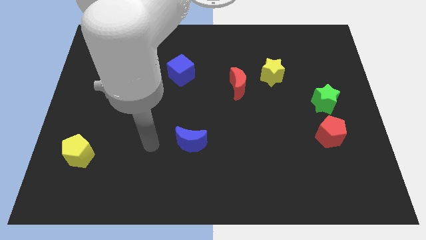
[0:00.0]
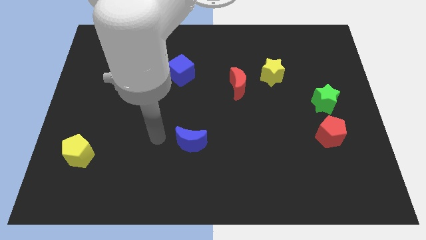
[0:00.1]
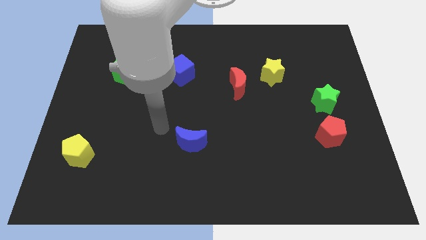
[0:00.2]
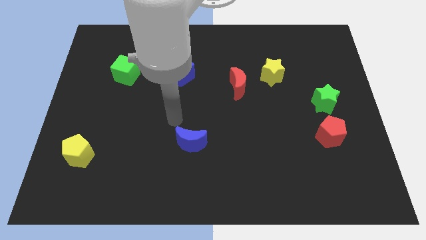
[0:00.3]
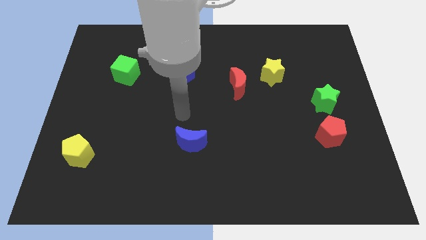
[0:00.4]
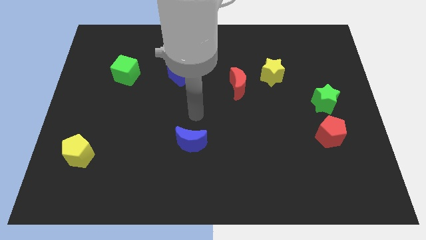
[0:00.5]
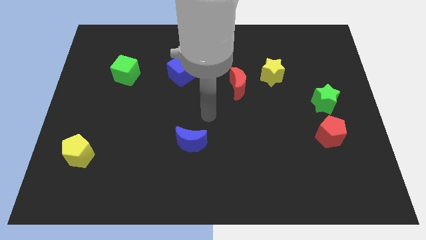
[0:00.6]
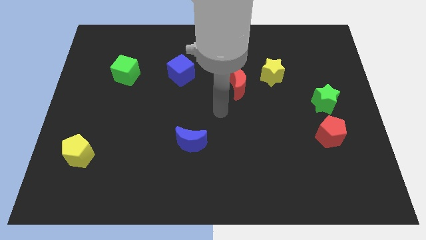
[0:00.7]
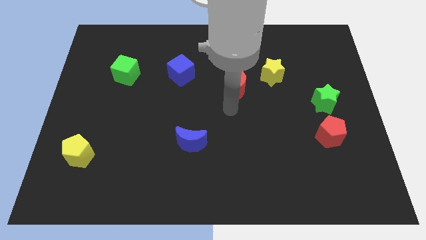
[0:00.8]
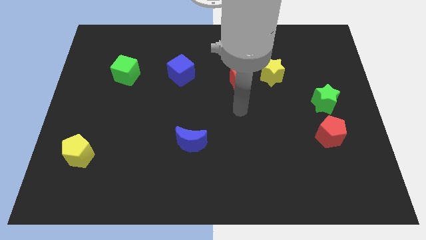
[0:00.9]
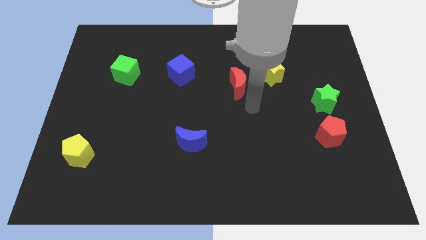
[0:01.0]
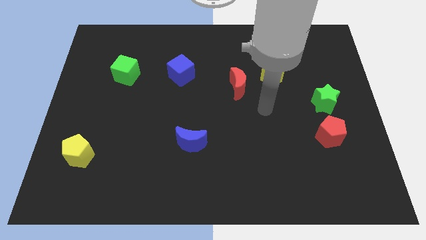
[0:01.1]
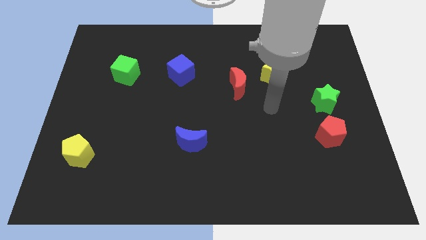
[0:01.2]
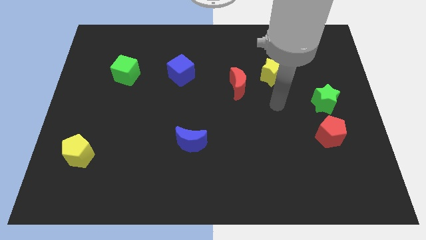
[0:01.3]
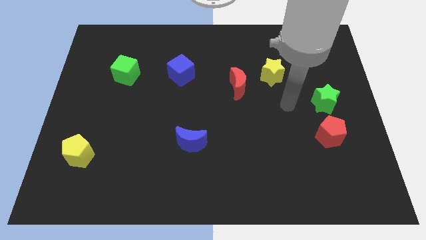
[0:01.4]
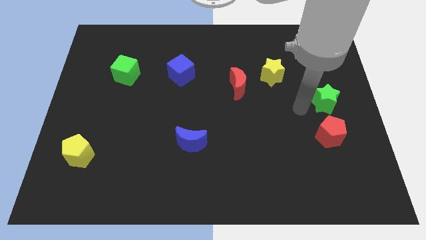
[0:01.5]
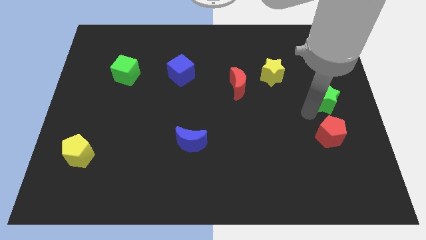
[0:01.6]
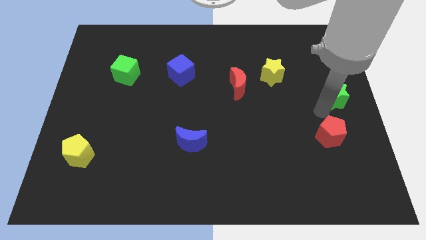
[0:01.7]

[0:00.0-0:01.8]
separate the red pentagon from the green star

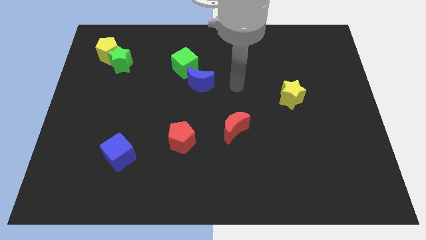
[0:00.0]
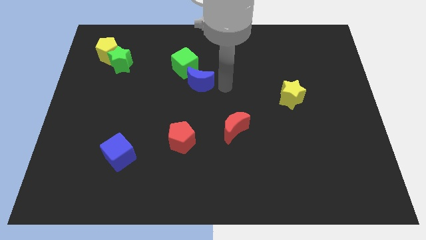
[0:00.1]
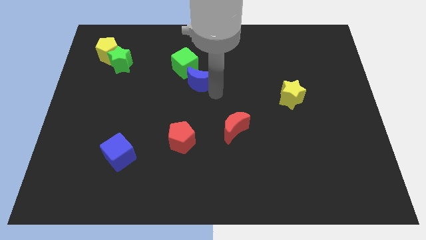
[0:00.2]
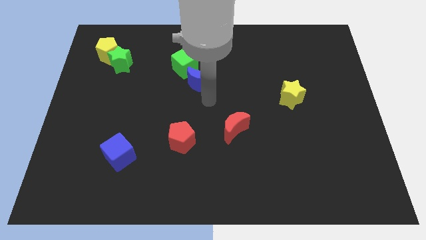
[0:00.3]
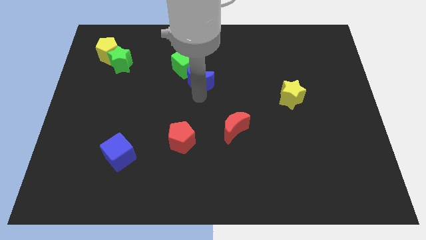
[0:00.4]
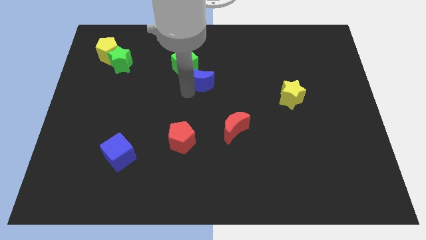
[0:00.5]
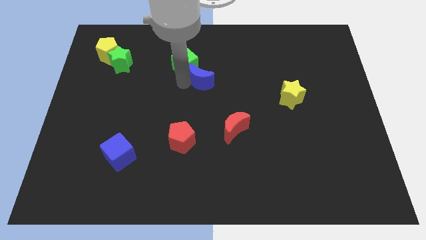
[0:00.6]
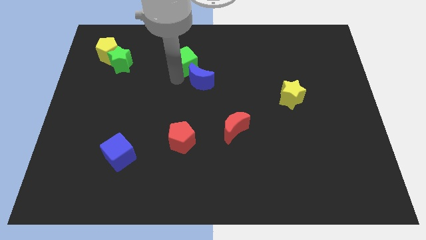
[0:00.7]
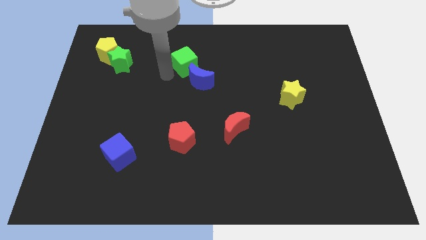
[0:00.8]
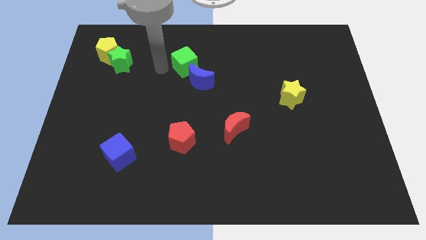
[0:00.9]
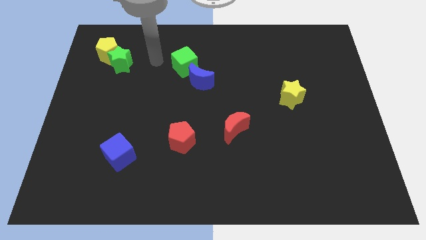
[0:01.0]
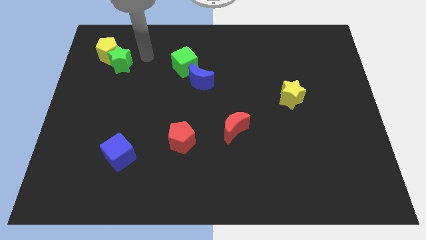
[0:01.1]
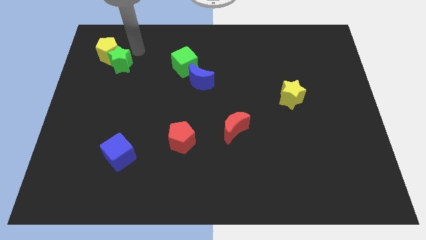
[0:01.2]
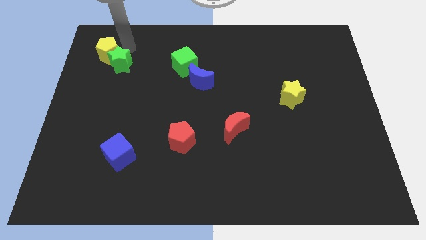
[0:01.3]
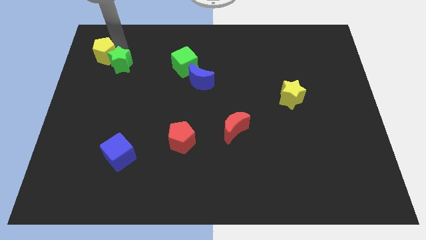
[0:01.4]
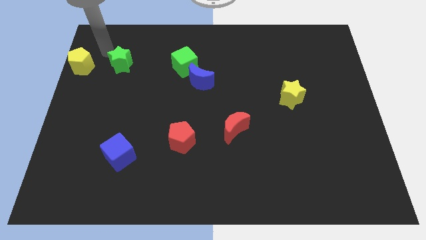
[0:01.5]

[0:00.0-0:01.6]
separate the green star from the yellow pentagon

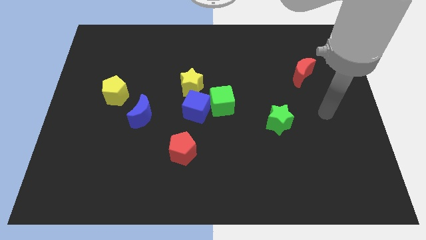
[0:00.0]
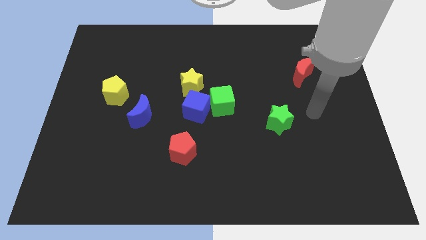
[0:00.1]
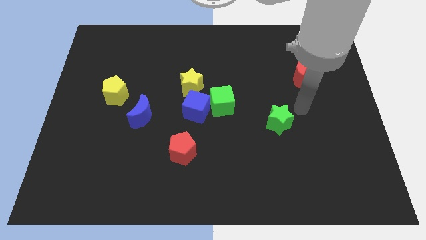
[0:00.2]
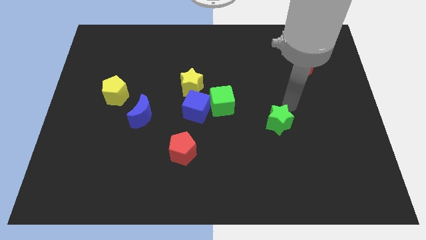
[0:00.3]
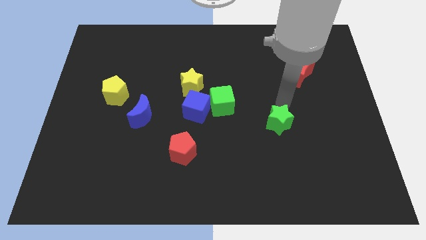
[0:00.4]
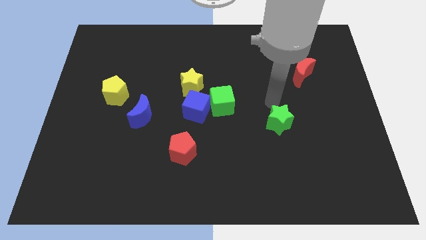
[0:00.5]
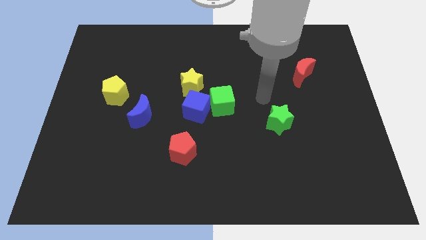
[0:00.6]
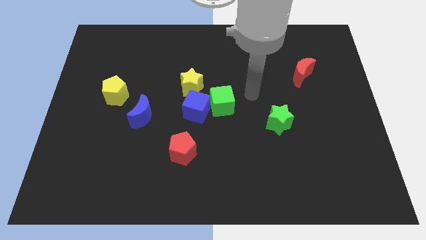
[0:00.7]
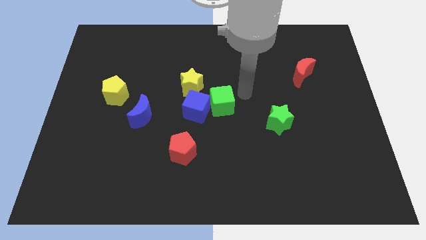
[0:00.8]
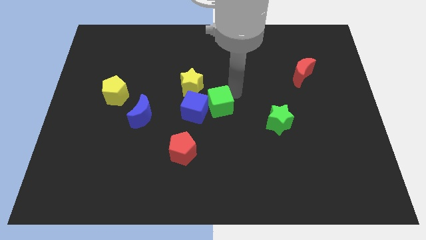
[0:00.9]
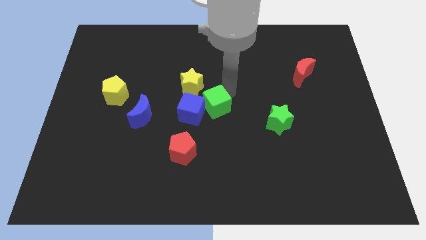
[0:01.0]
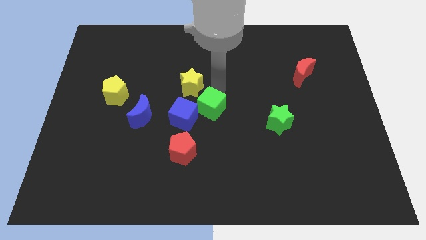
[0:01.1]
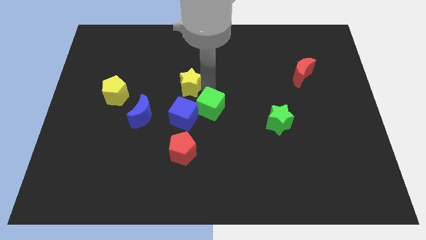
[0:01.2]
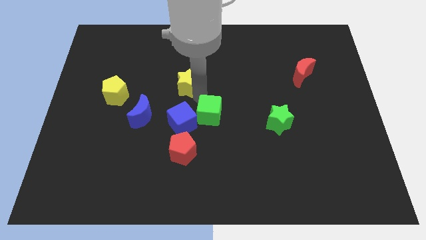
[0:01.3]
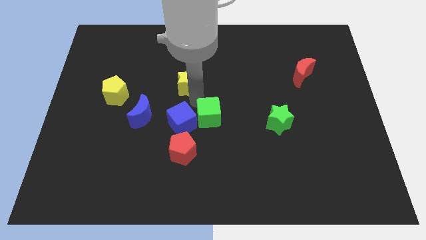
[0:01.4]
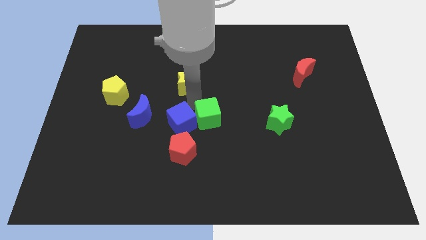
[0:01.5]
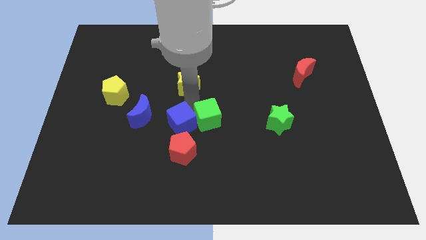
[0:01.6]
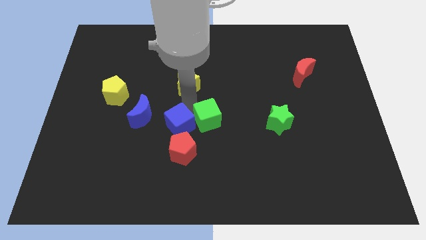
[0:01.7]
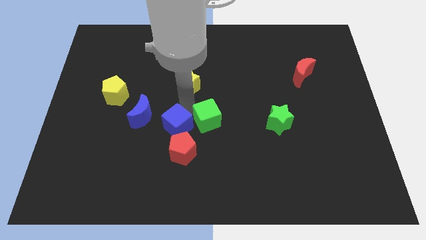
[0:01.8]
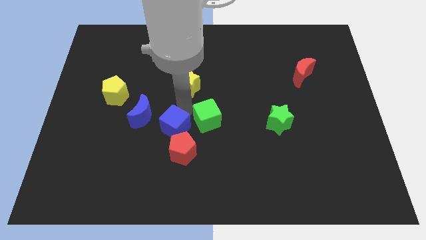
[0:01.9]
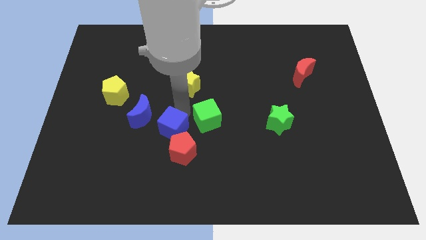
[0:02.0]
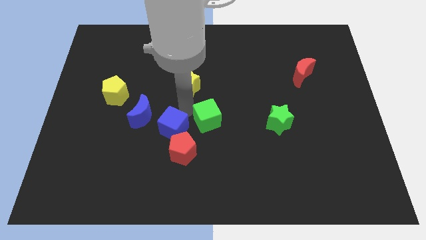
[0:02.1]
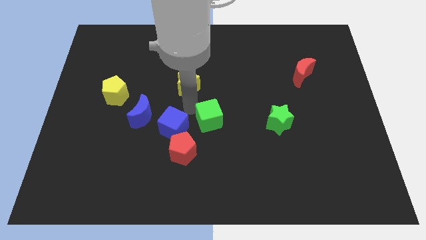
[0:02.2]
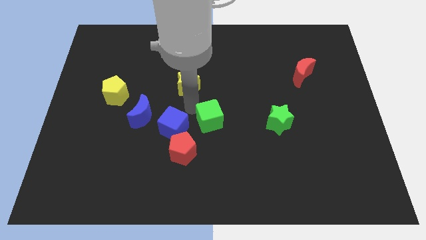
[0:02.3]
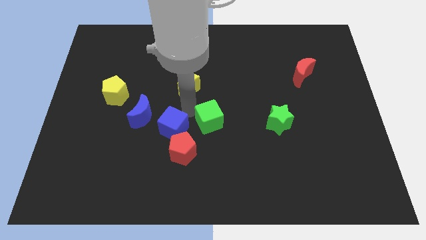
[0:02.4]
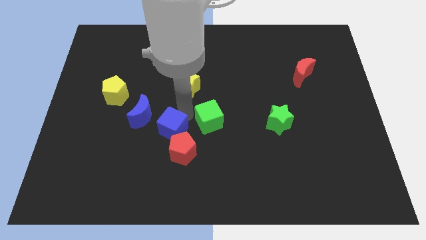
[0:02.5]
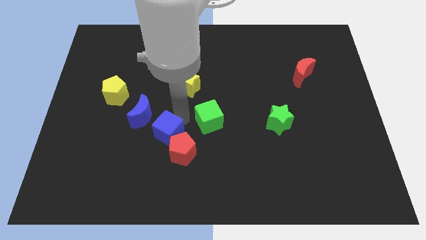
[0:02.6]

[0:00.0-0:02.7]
pull the blue cube apart from the green cube and yellow star

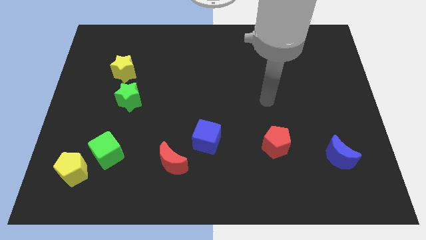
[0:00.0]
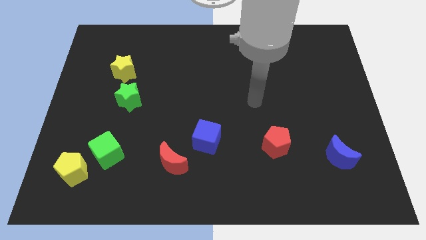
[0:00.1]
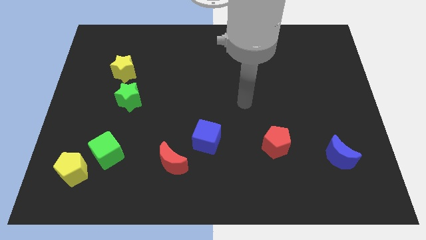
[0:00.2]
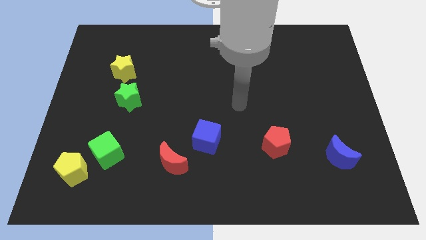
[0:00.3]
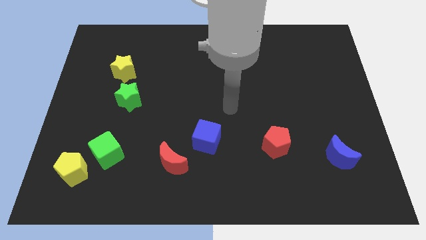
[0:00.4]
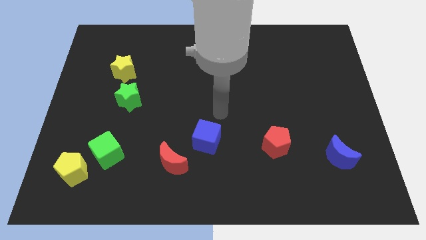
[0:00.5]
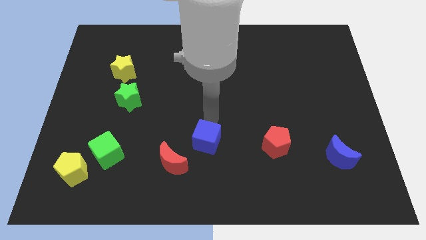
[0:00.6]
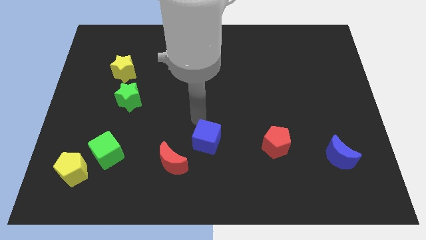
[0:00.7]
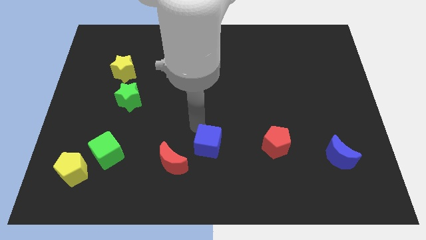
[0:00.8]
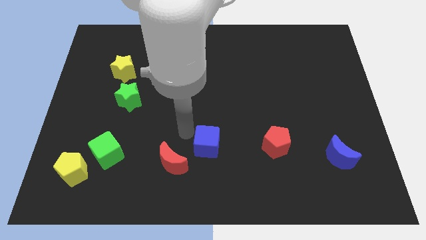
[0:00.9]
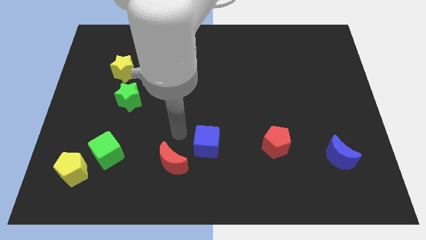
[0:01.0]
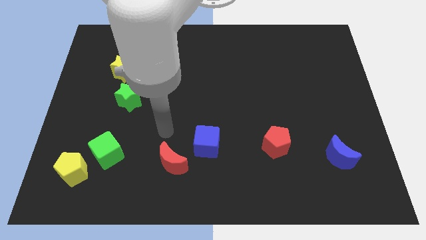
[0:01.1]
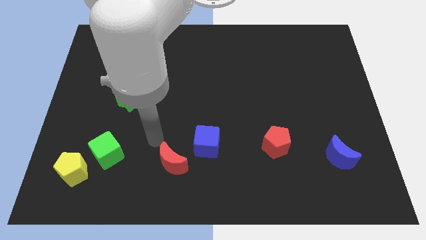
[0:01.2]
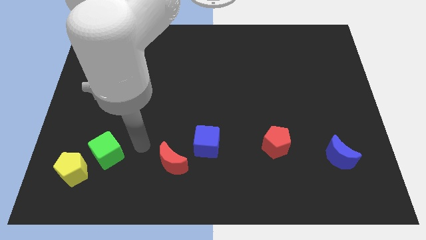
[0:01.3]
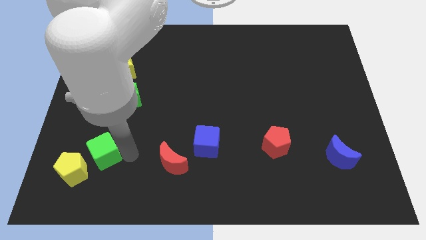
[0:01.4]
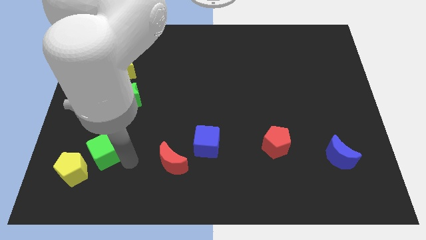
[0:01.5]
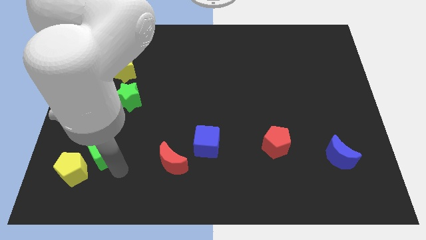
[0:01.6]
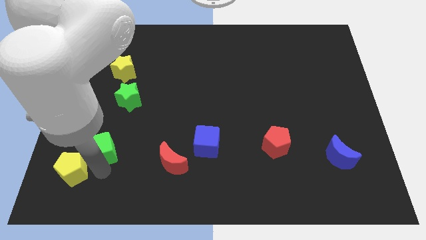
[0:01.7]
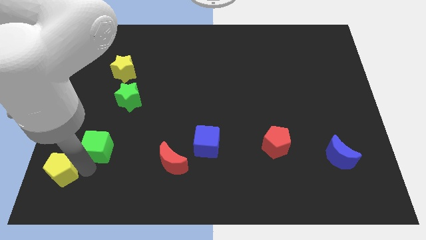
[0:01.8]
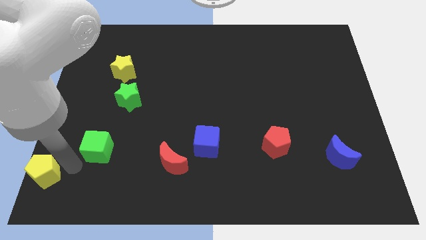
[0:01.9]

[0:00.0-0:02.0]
pull the green cube apart from the yellow pentagon

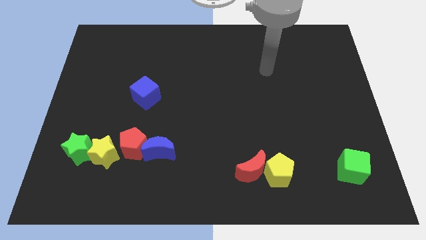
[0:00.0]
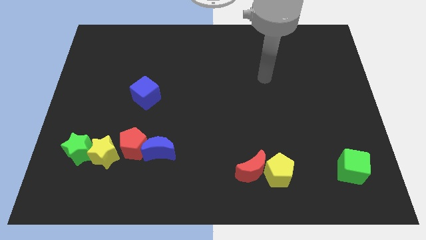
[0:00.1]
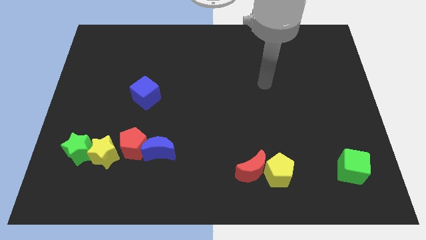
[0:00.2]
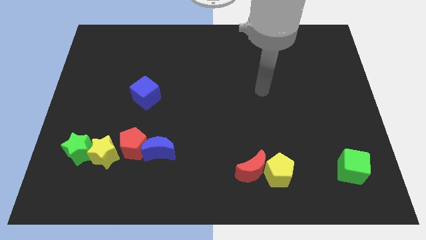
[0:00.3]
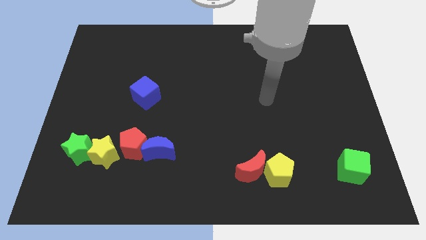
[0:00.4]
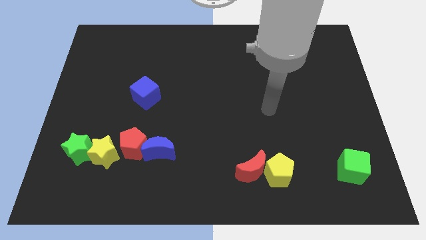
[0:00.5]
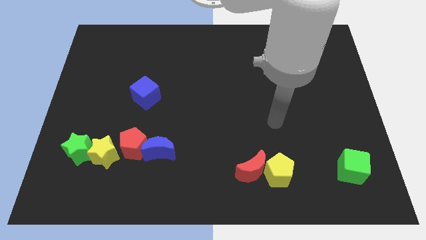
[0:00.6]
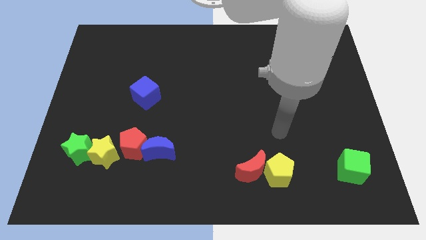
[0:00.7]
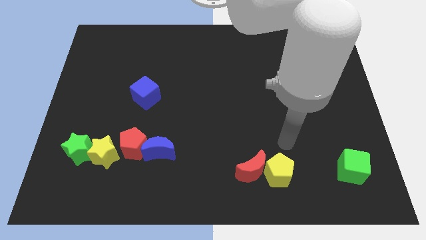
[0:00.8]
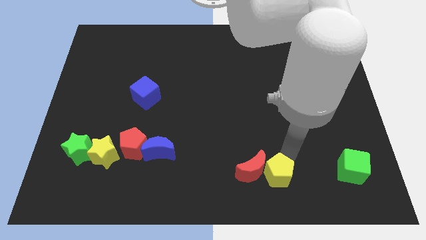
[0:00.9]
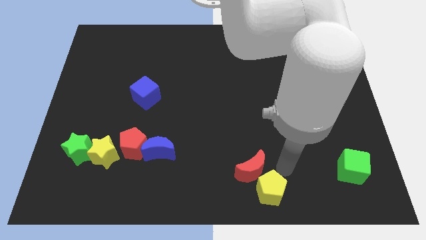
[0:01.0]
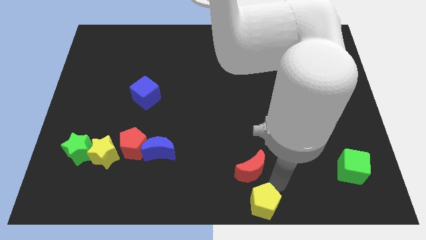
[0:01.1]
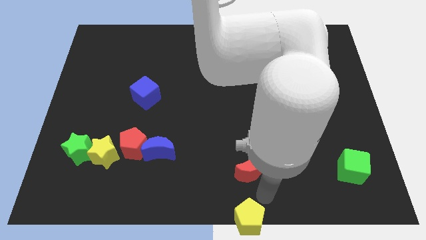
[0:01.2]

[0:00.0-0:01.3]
move the red moon away from the yellow pentagon
